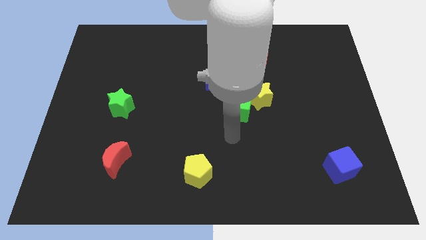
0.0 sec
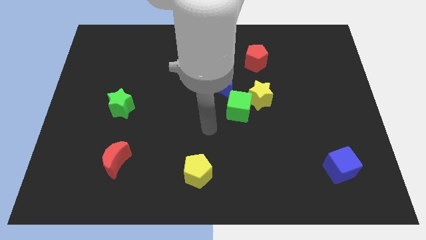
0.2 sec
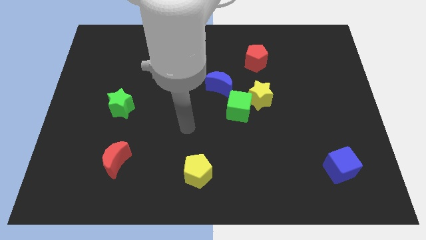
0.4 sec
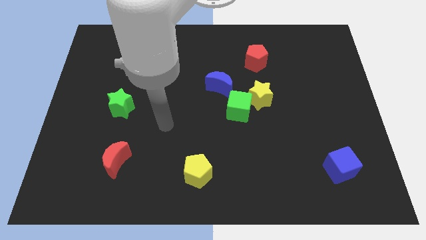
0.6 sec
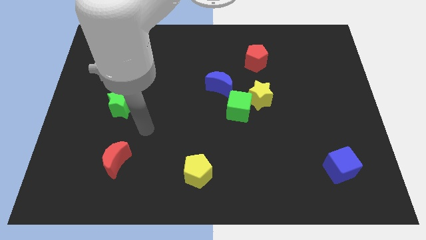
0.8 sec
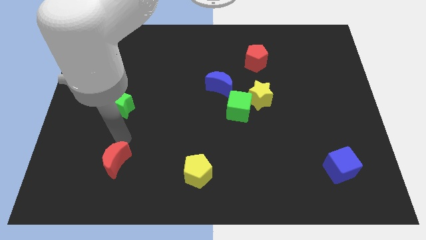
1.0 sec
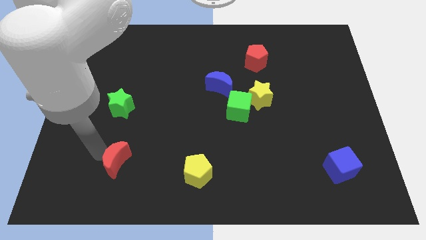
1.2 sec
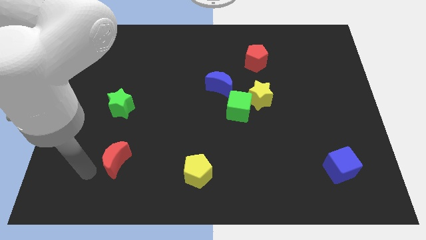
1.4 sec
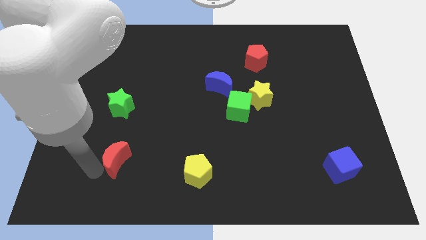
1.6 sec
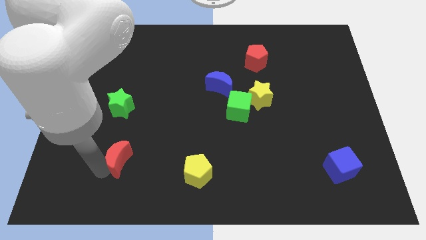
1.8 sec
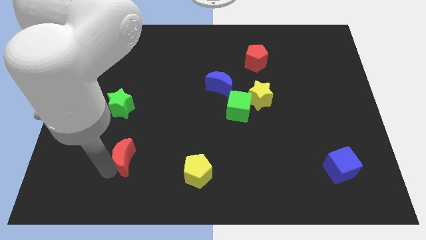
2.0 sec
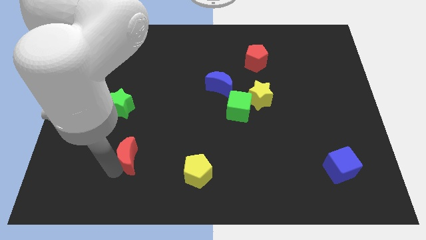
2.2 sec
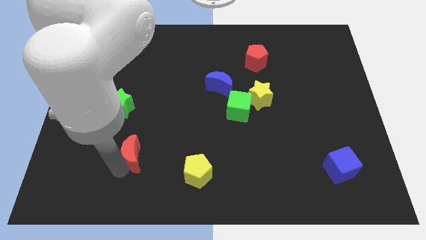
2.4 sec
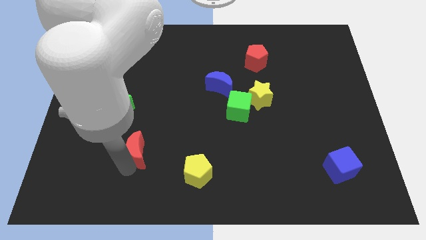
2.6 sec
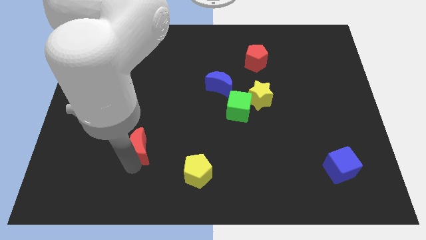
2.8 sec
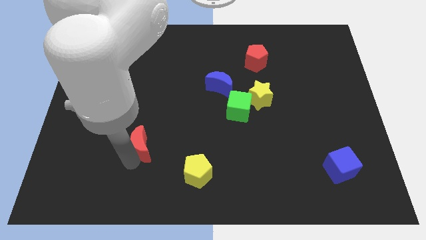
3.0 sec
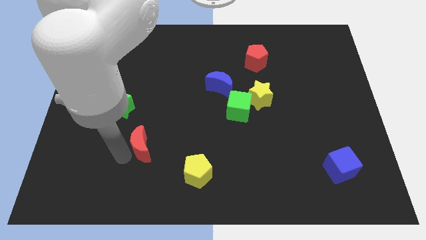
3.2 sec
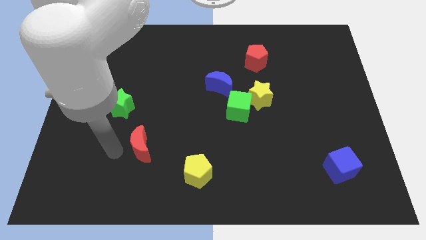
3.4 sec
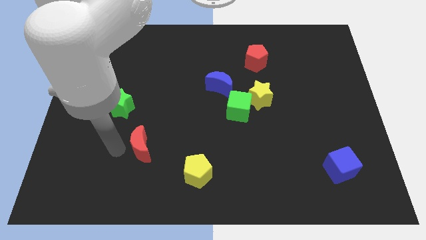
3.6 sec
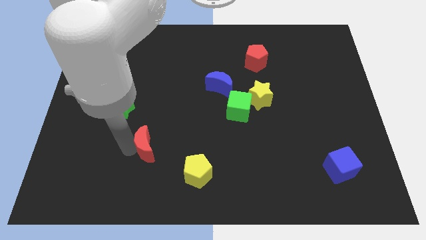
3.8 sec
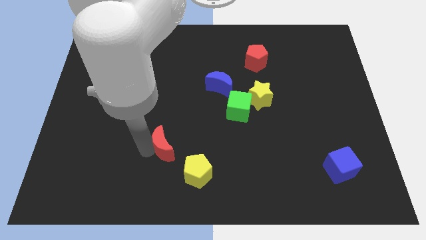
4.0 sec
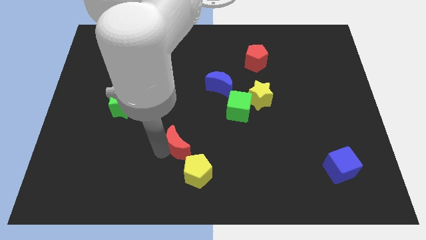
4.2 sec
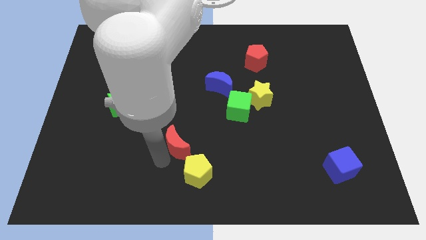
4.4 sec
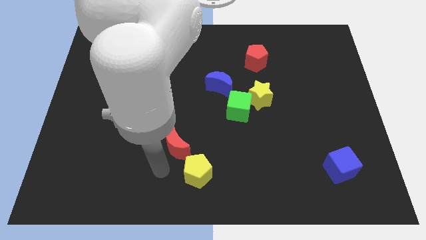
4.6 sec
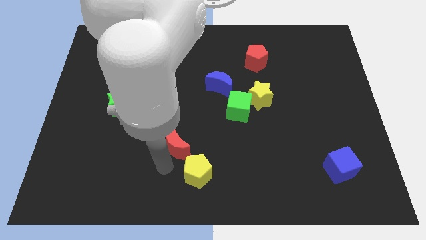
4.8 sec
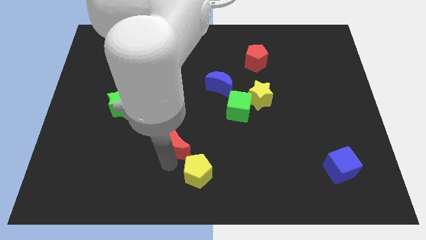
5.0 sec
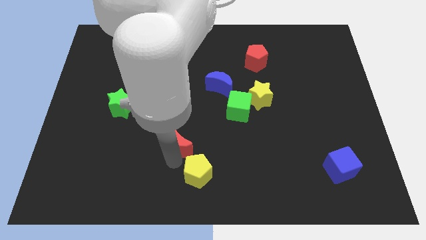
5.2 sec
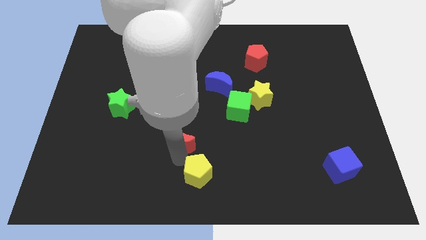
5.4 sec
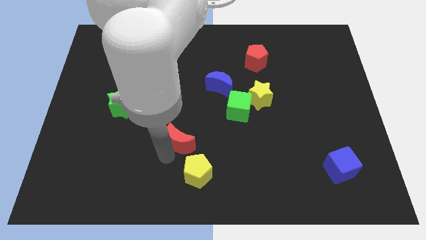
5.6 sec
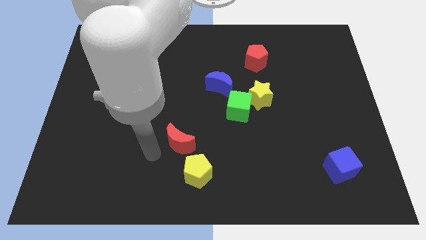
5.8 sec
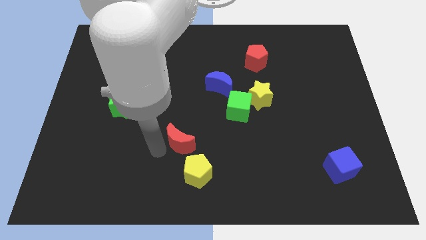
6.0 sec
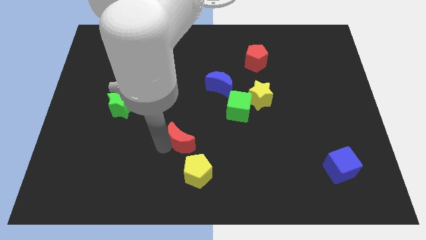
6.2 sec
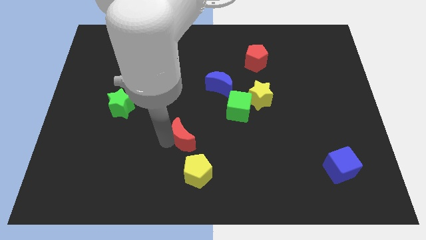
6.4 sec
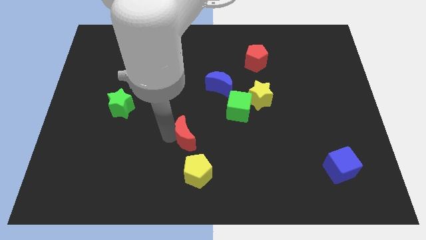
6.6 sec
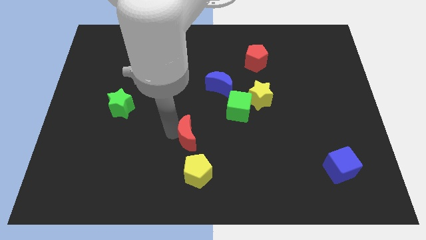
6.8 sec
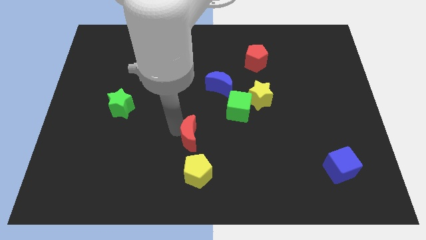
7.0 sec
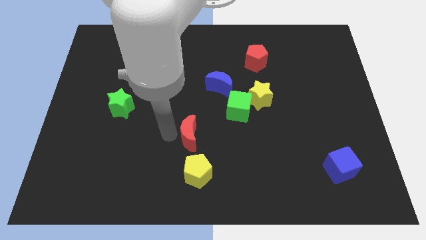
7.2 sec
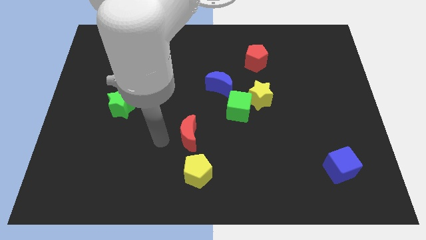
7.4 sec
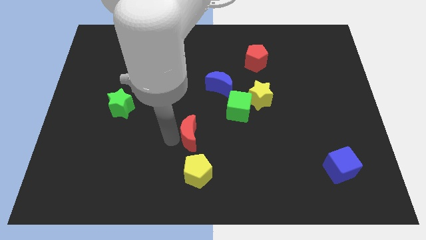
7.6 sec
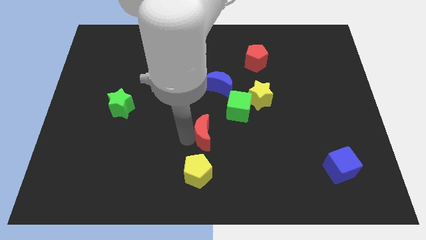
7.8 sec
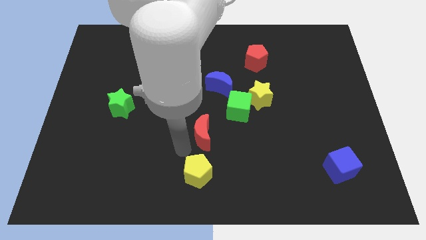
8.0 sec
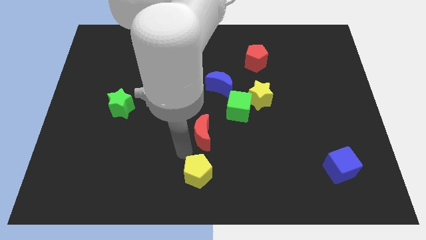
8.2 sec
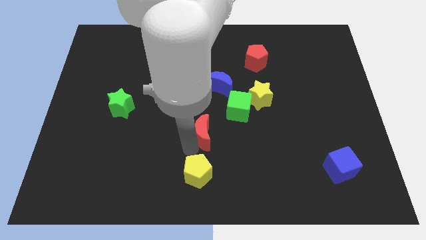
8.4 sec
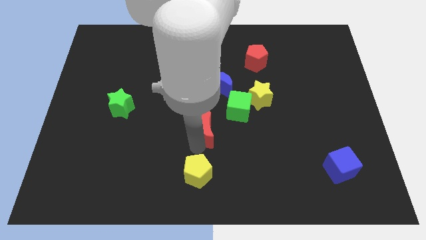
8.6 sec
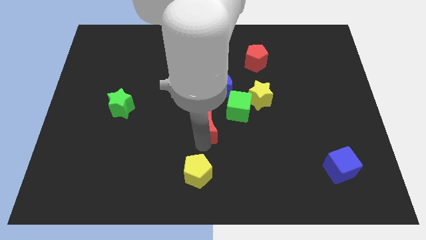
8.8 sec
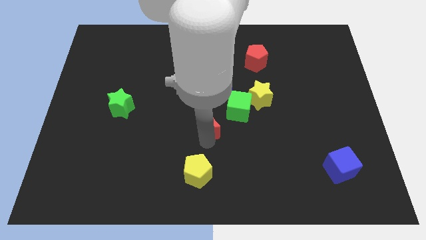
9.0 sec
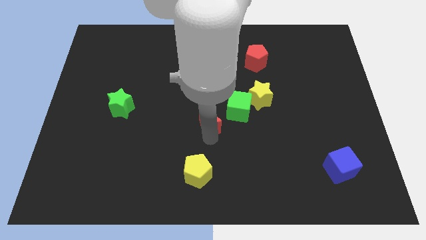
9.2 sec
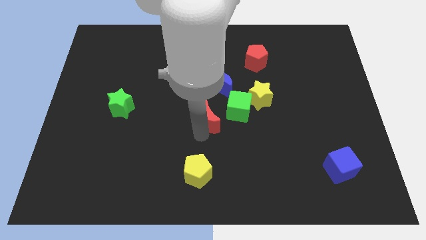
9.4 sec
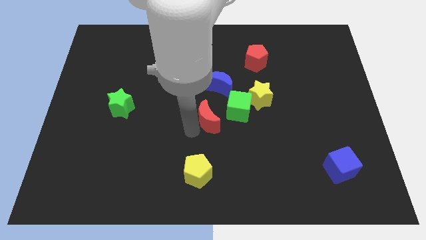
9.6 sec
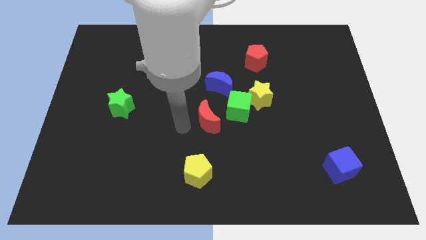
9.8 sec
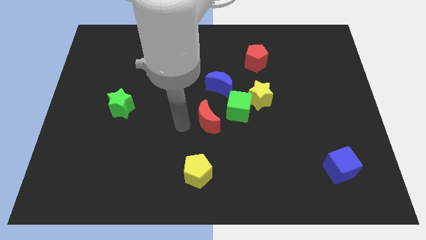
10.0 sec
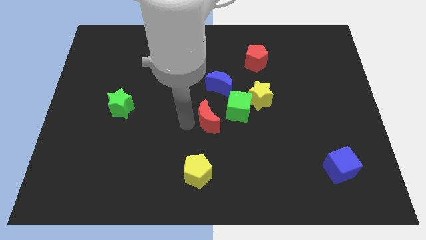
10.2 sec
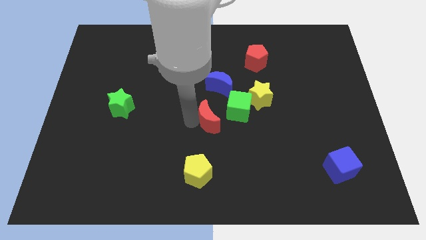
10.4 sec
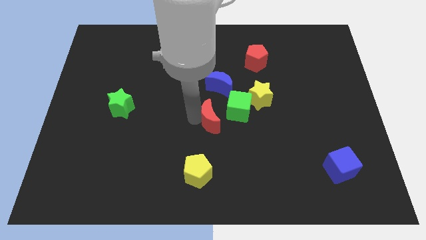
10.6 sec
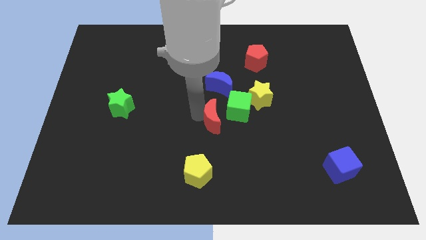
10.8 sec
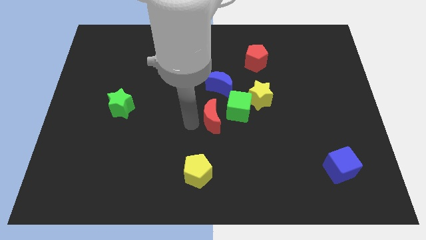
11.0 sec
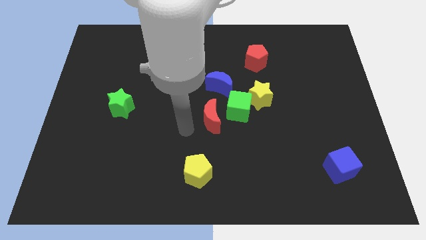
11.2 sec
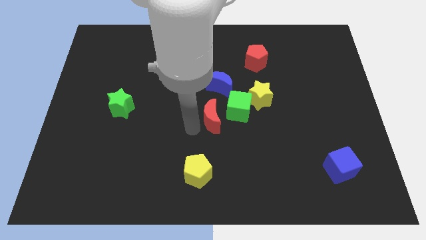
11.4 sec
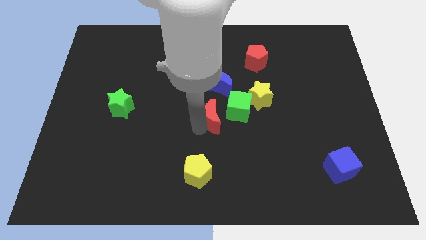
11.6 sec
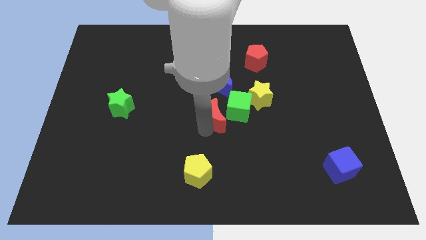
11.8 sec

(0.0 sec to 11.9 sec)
push the red moon next to the green cube

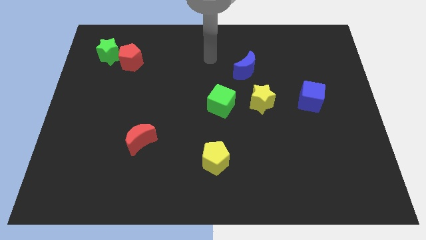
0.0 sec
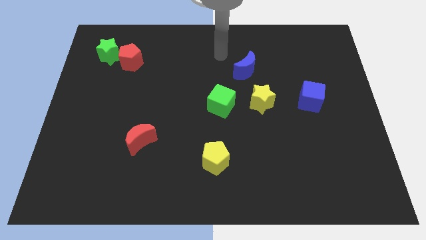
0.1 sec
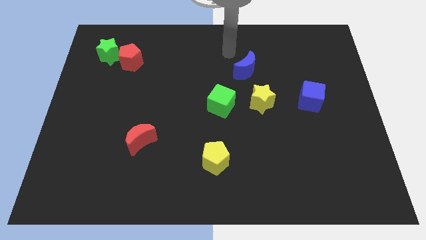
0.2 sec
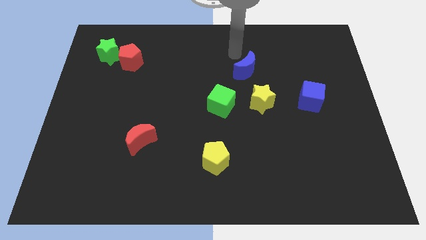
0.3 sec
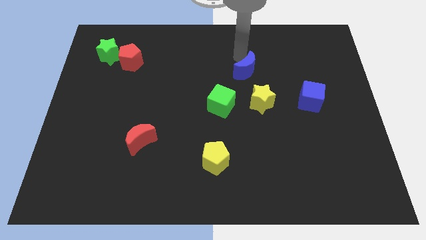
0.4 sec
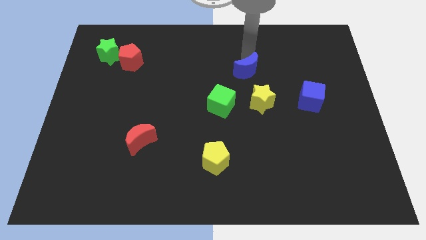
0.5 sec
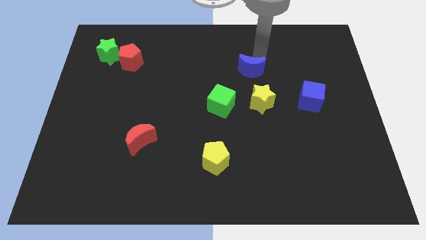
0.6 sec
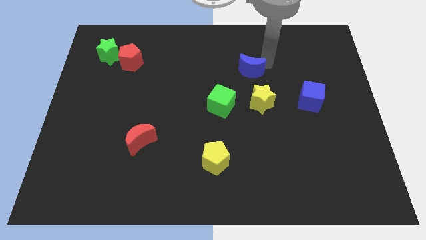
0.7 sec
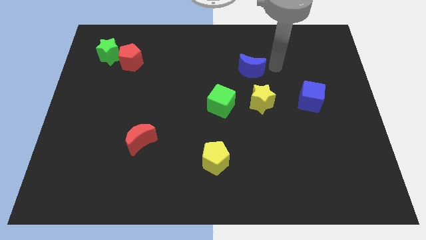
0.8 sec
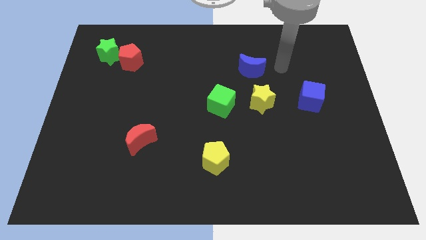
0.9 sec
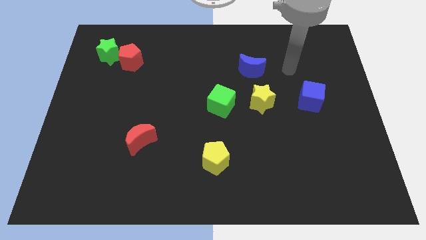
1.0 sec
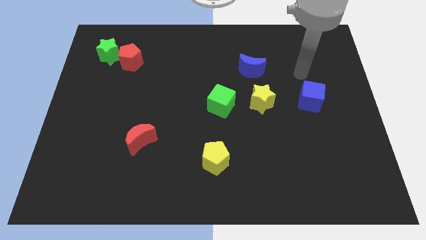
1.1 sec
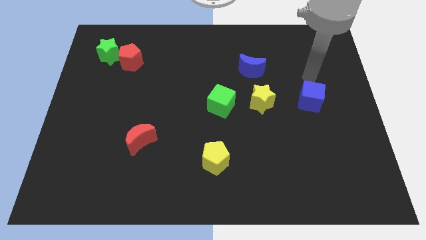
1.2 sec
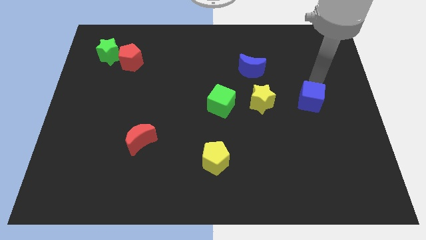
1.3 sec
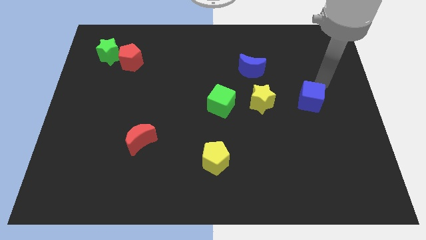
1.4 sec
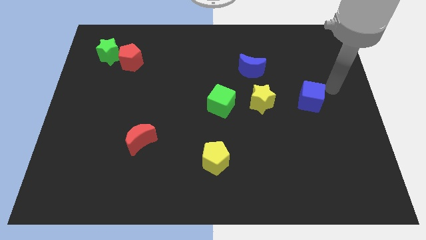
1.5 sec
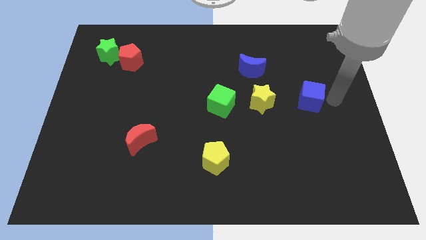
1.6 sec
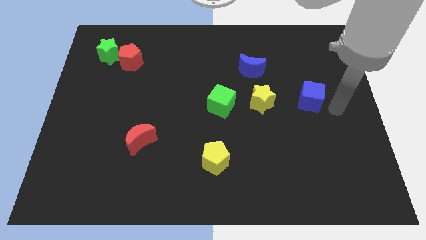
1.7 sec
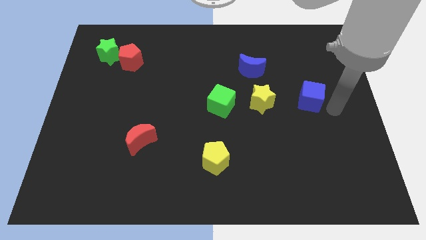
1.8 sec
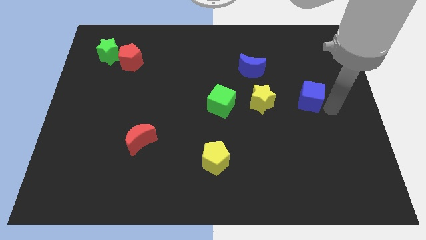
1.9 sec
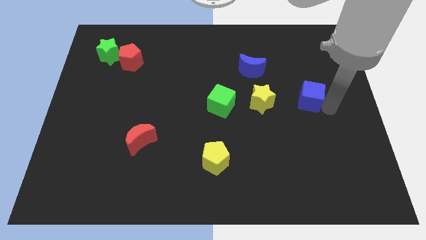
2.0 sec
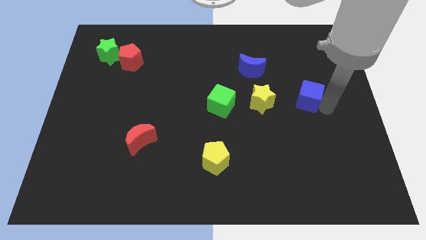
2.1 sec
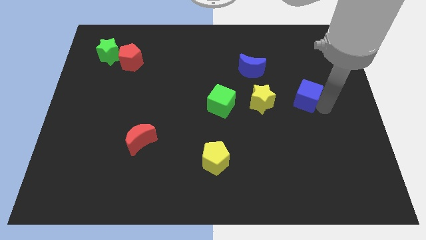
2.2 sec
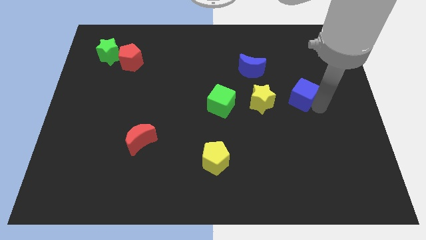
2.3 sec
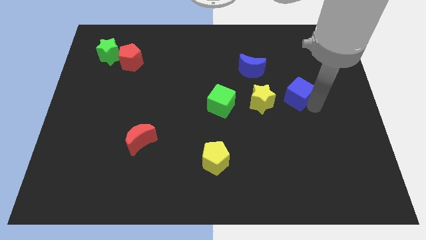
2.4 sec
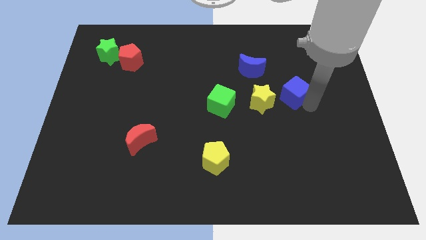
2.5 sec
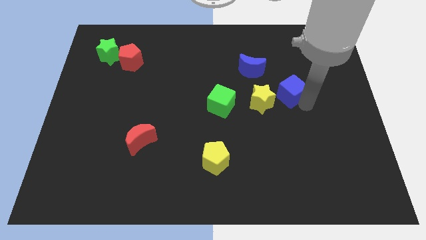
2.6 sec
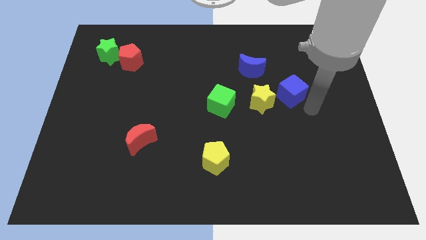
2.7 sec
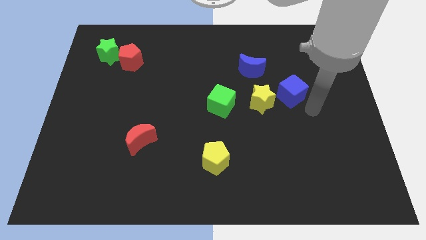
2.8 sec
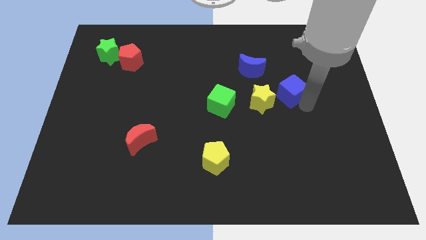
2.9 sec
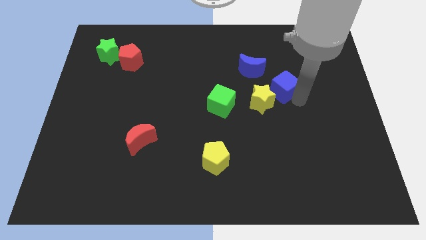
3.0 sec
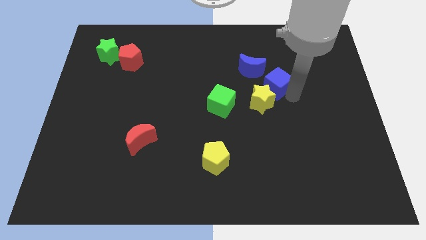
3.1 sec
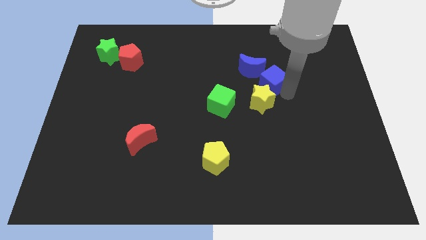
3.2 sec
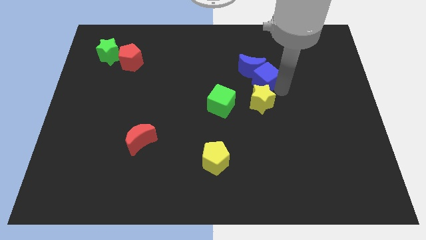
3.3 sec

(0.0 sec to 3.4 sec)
push the blue cube close to the blue moon
